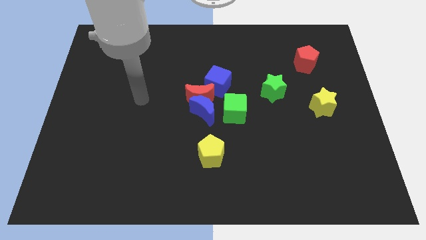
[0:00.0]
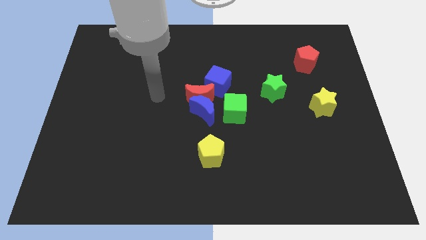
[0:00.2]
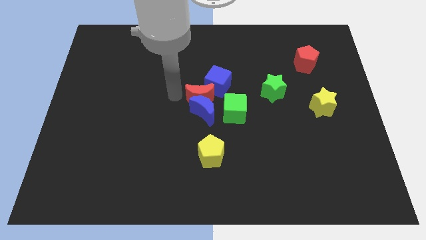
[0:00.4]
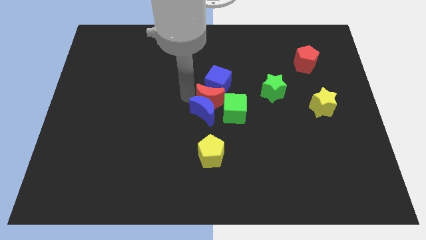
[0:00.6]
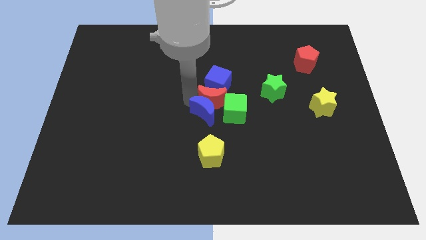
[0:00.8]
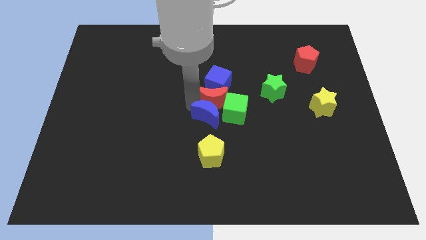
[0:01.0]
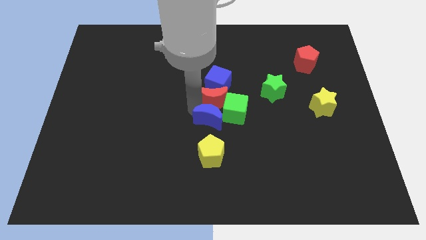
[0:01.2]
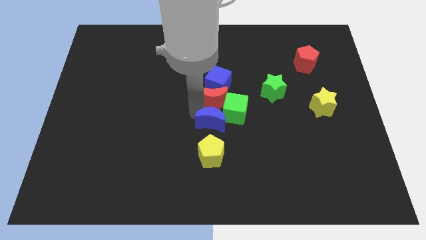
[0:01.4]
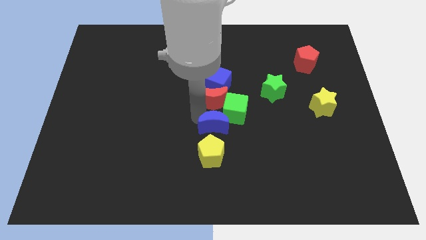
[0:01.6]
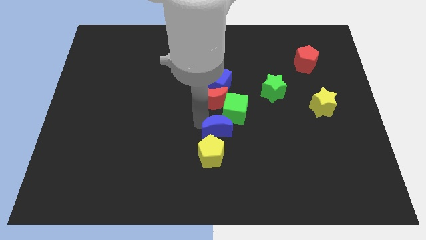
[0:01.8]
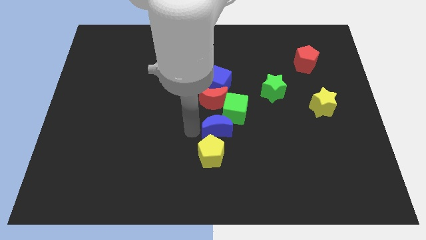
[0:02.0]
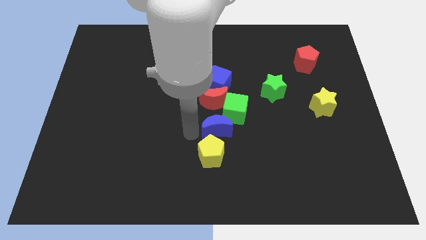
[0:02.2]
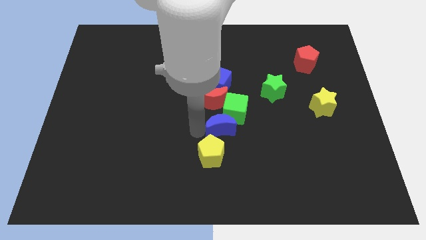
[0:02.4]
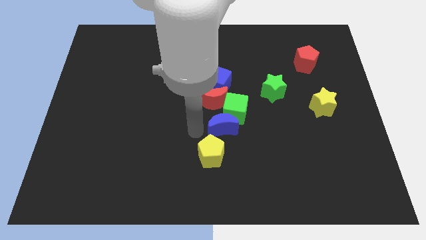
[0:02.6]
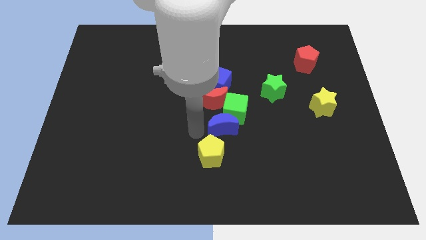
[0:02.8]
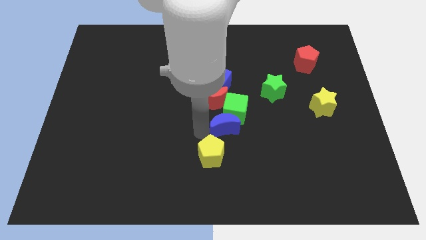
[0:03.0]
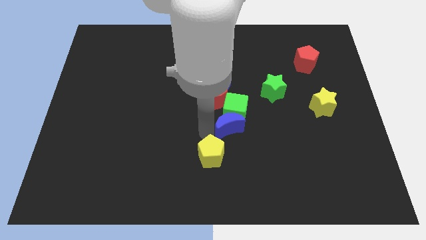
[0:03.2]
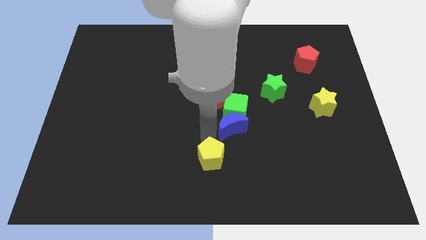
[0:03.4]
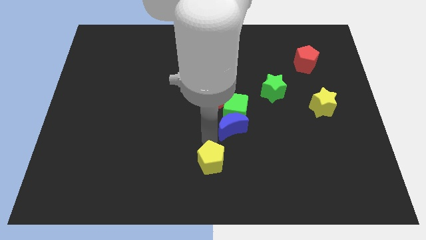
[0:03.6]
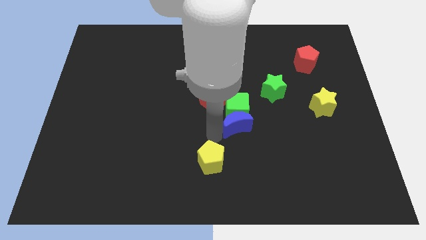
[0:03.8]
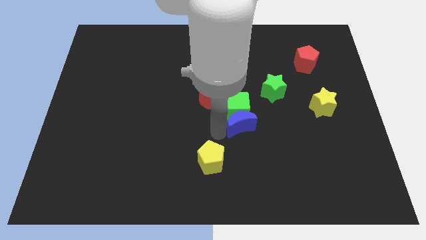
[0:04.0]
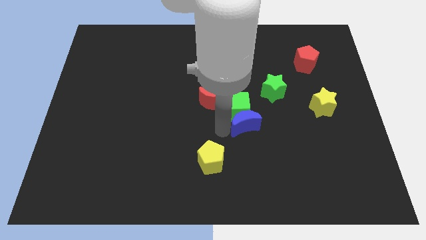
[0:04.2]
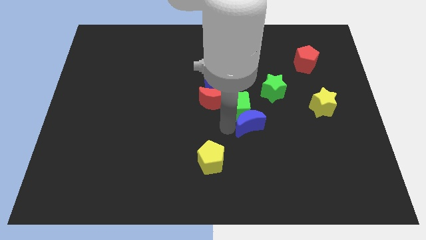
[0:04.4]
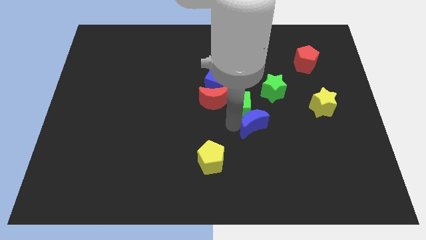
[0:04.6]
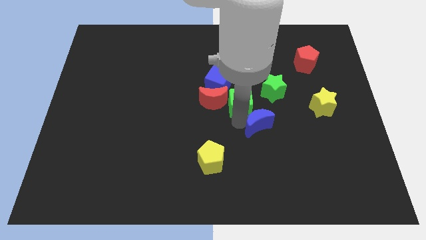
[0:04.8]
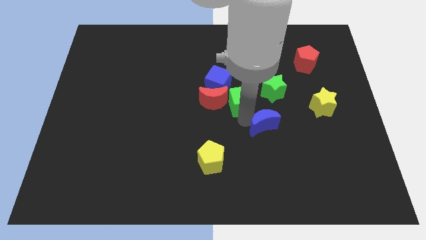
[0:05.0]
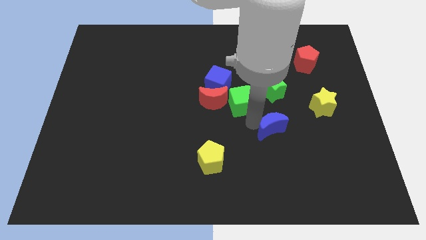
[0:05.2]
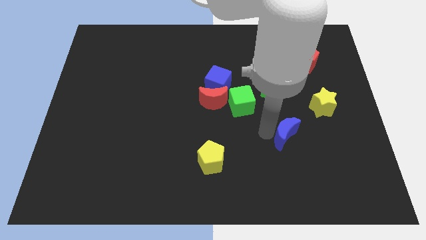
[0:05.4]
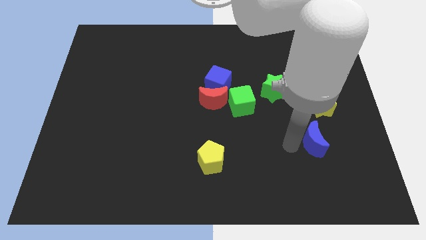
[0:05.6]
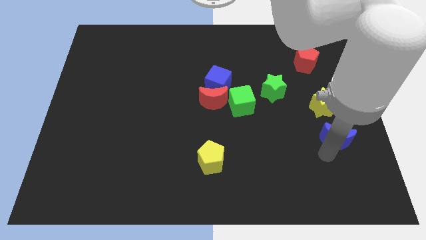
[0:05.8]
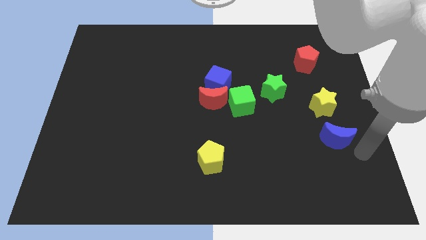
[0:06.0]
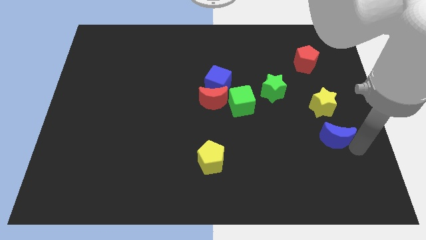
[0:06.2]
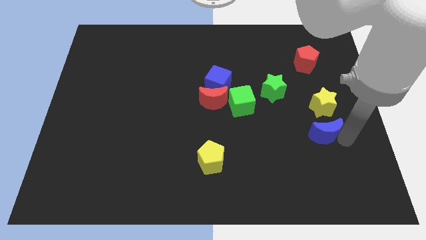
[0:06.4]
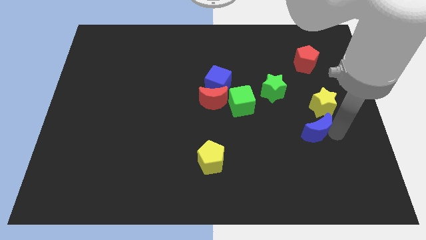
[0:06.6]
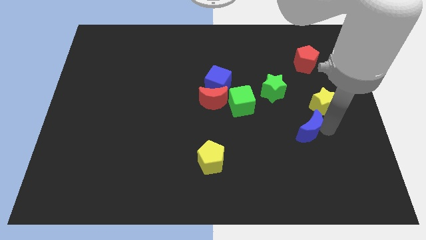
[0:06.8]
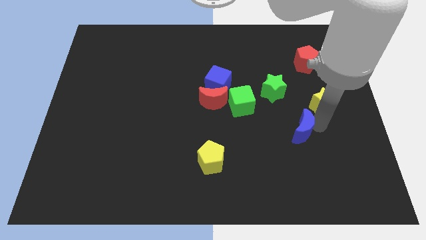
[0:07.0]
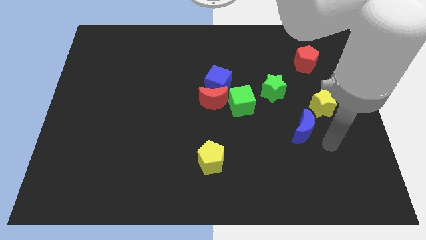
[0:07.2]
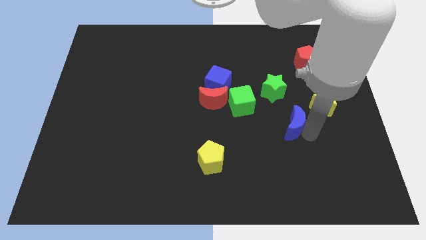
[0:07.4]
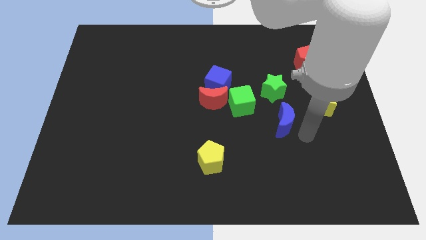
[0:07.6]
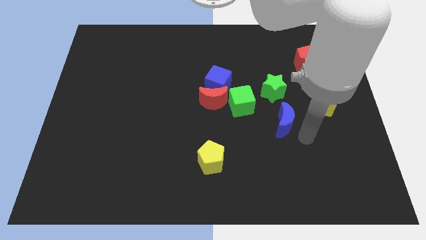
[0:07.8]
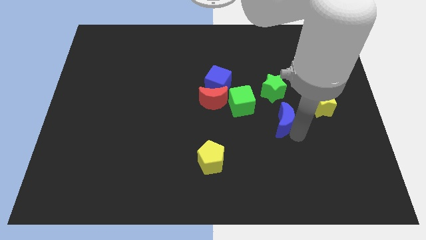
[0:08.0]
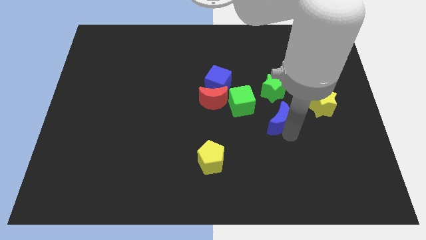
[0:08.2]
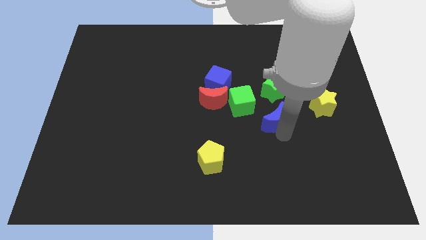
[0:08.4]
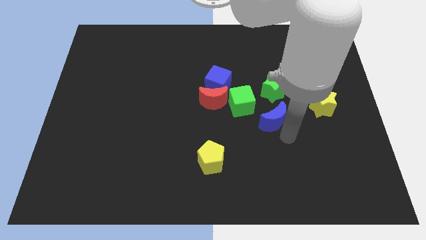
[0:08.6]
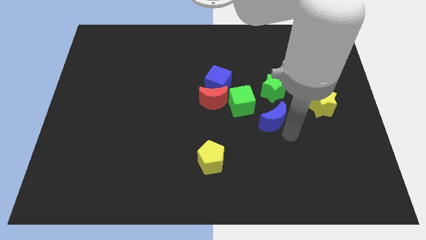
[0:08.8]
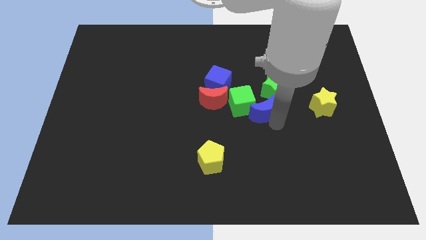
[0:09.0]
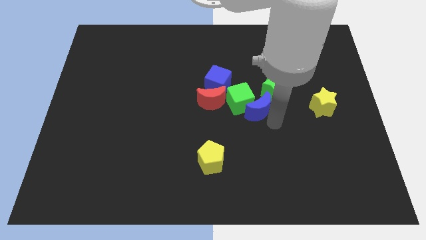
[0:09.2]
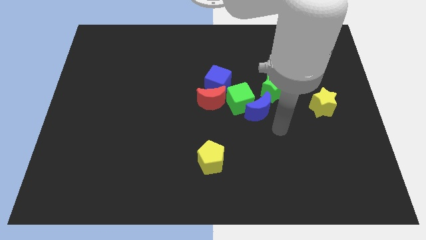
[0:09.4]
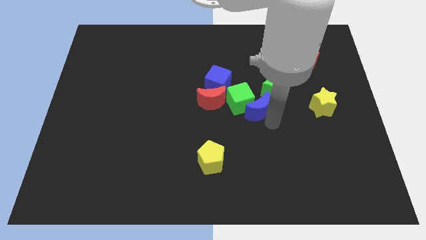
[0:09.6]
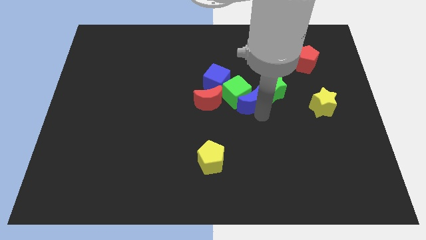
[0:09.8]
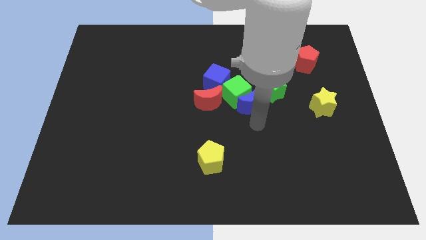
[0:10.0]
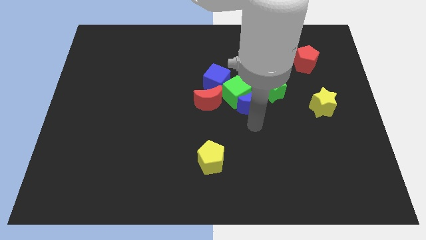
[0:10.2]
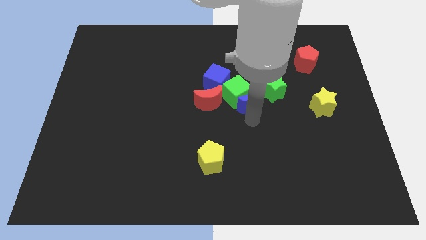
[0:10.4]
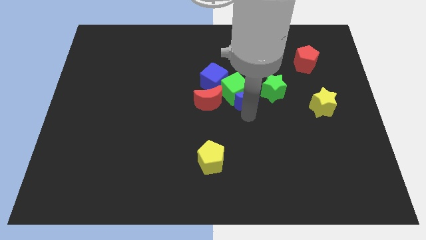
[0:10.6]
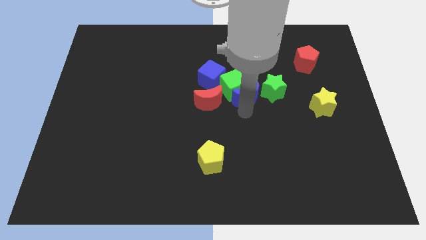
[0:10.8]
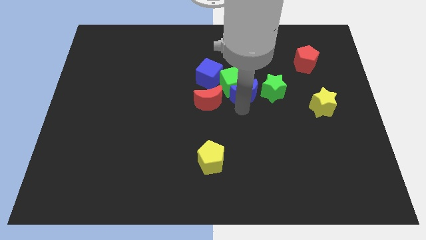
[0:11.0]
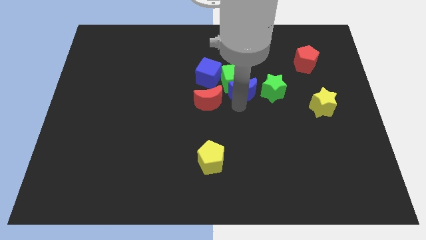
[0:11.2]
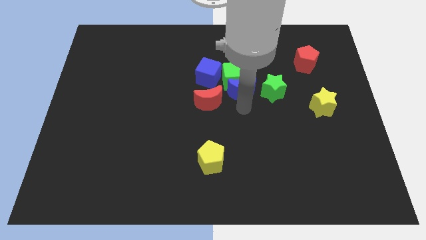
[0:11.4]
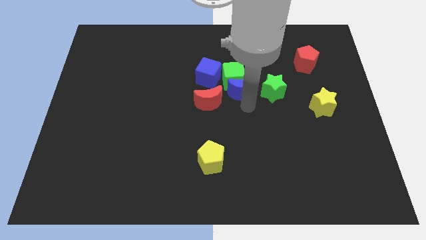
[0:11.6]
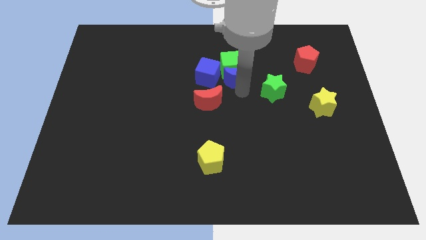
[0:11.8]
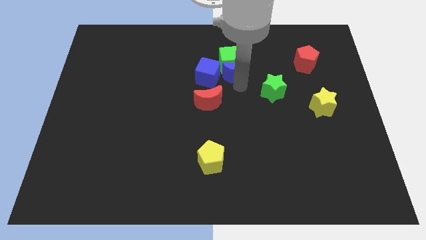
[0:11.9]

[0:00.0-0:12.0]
push the blue moon to the top right of the blue cube

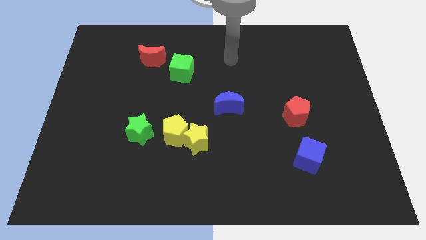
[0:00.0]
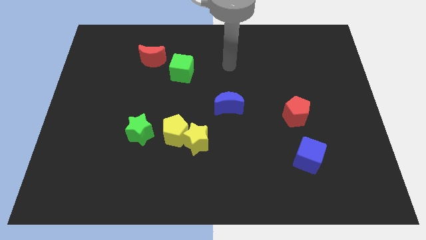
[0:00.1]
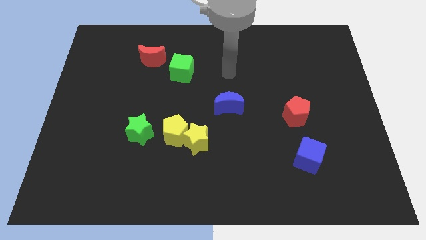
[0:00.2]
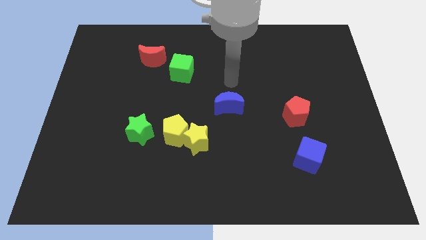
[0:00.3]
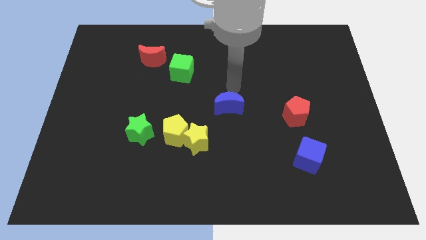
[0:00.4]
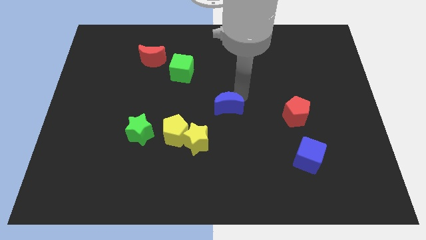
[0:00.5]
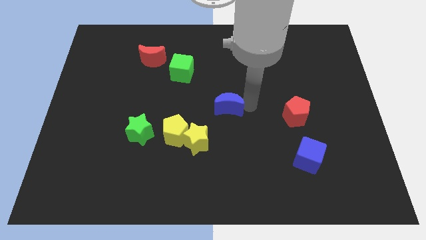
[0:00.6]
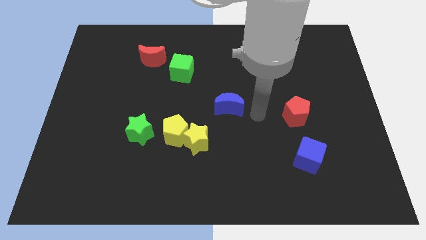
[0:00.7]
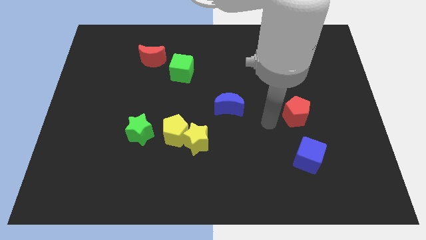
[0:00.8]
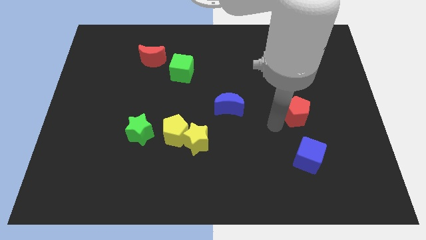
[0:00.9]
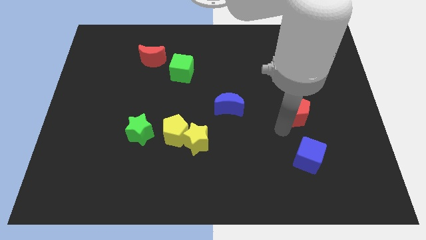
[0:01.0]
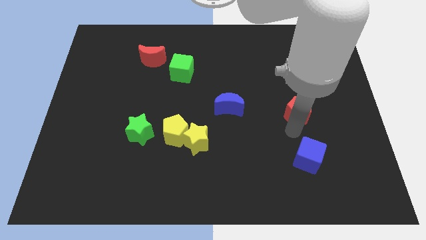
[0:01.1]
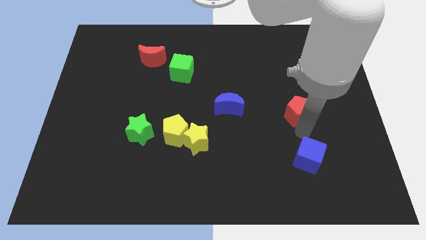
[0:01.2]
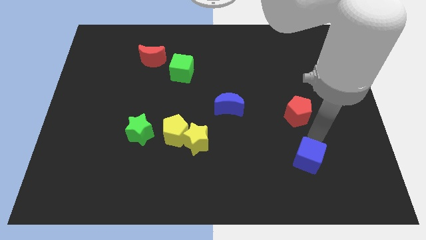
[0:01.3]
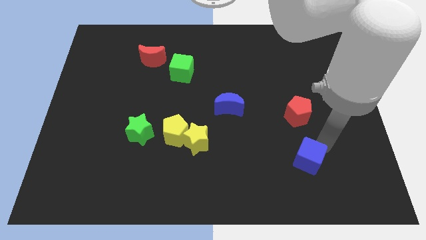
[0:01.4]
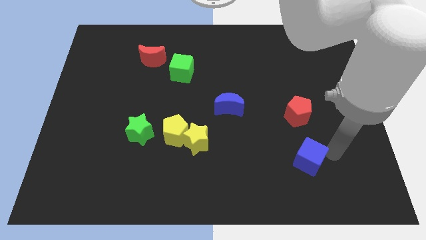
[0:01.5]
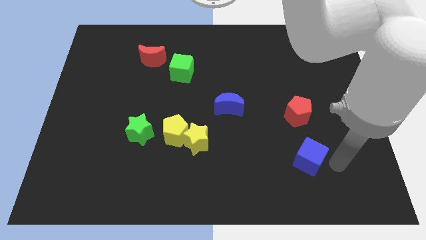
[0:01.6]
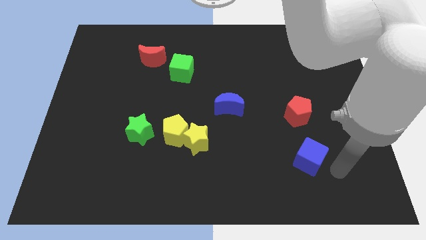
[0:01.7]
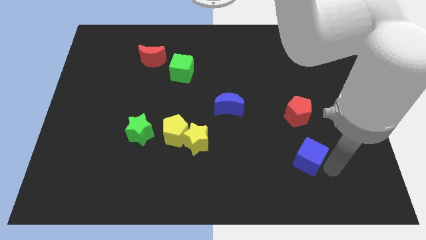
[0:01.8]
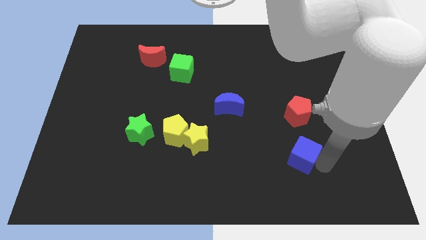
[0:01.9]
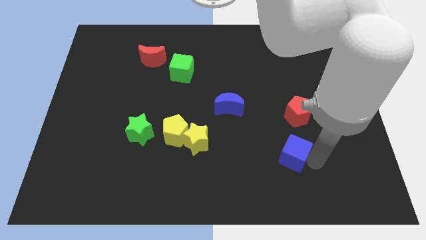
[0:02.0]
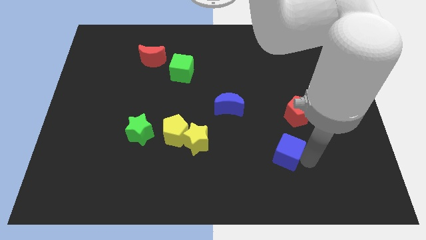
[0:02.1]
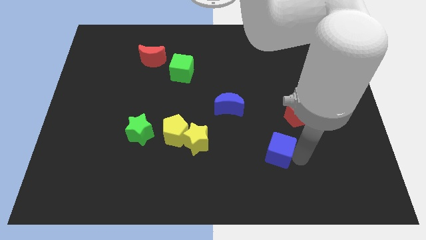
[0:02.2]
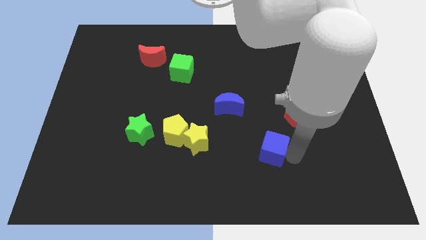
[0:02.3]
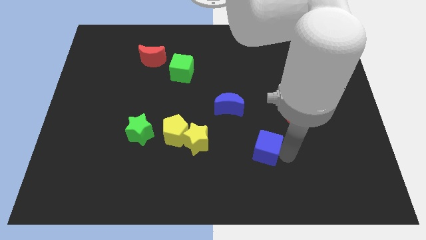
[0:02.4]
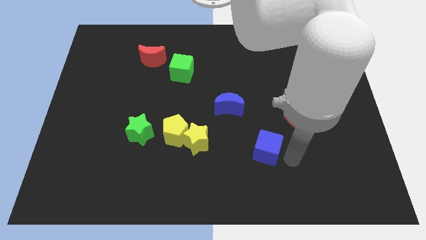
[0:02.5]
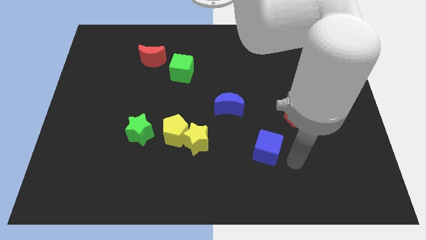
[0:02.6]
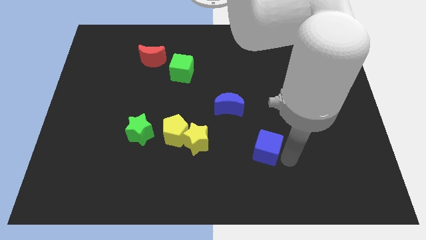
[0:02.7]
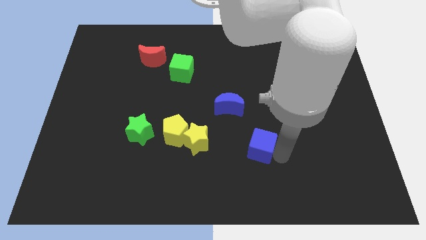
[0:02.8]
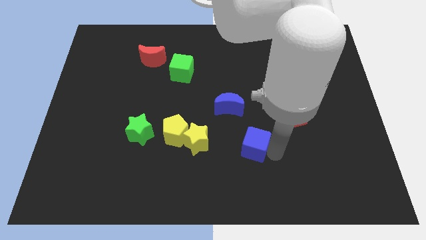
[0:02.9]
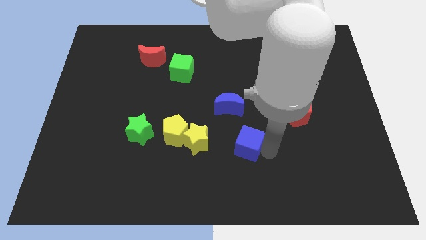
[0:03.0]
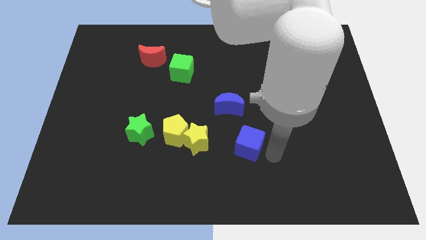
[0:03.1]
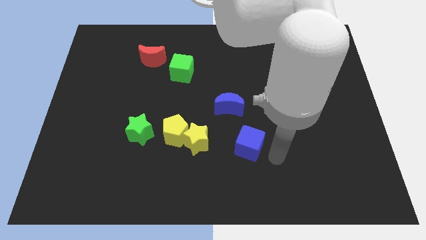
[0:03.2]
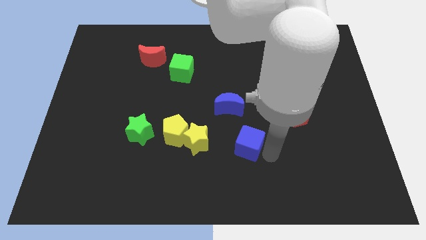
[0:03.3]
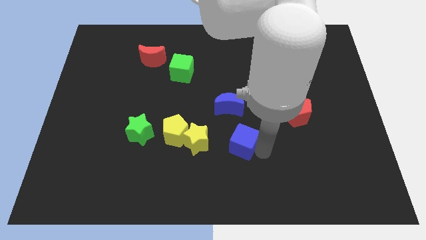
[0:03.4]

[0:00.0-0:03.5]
move the blue cube just right of the yellow pentagon
